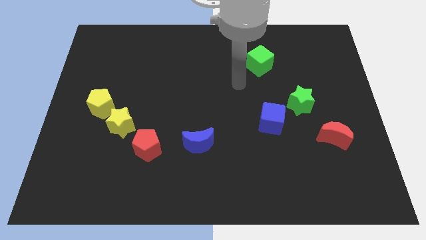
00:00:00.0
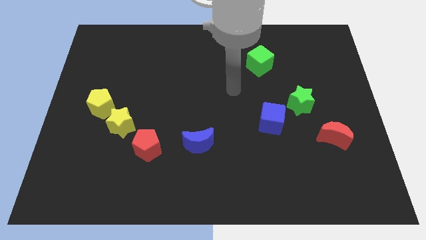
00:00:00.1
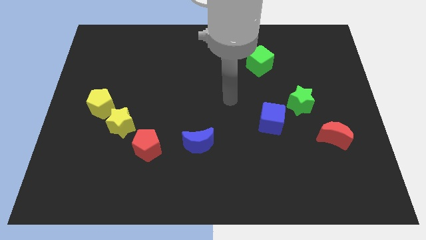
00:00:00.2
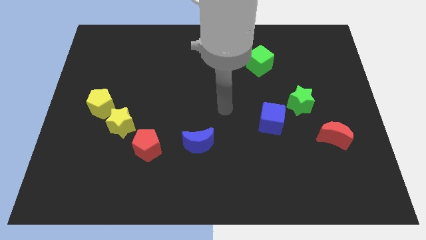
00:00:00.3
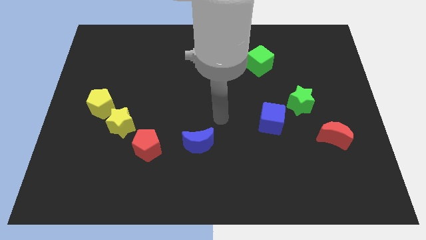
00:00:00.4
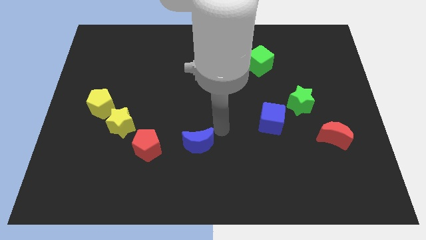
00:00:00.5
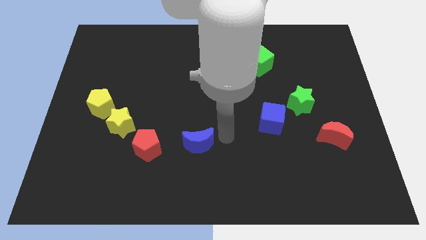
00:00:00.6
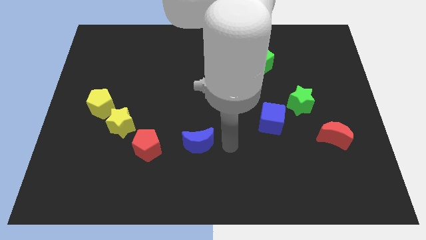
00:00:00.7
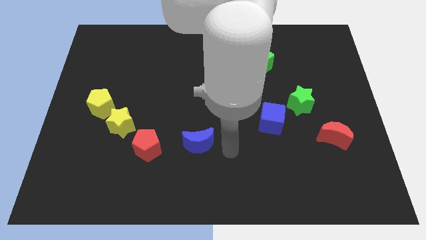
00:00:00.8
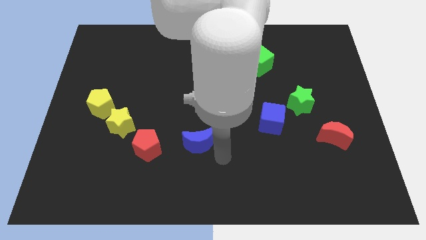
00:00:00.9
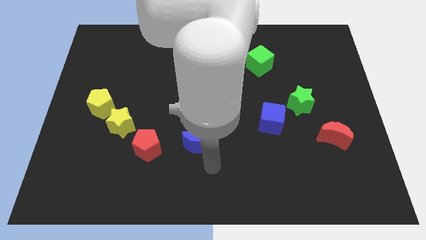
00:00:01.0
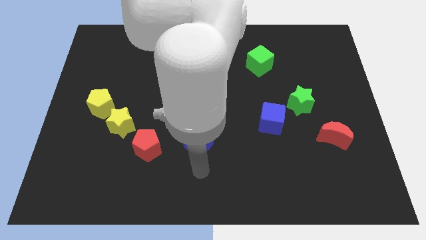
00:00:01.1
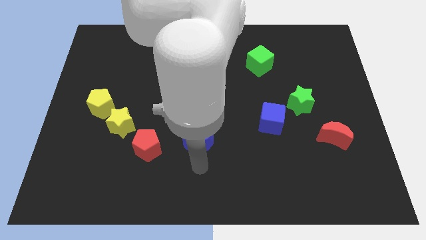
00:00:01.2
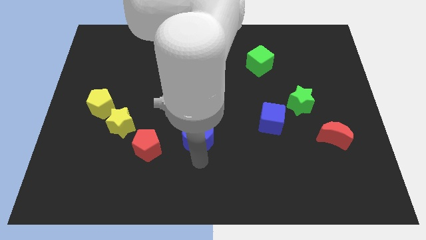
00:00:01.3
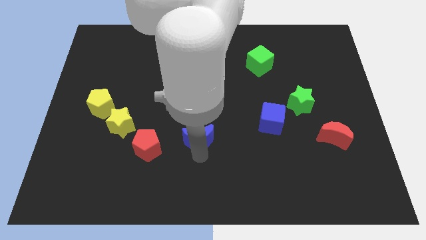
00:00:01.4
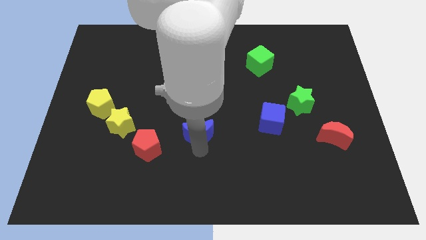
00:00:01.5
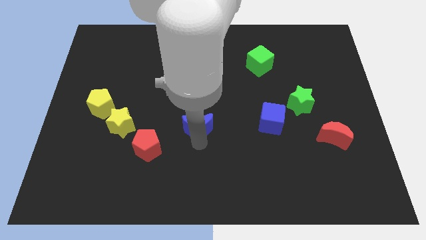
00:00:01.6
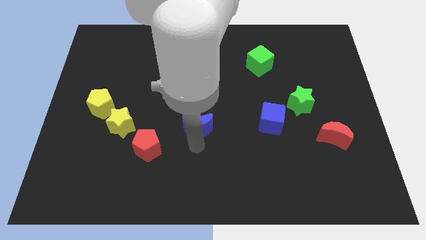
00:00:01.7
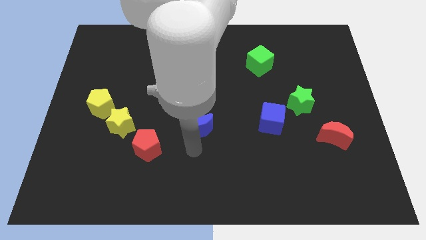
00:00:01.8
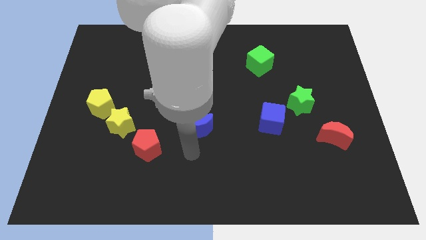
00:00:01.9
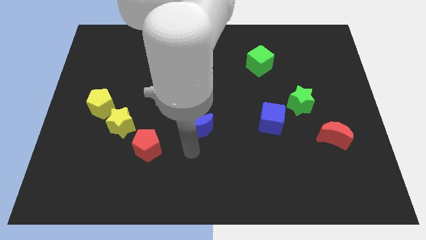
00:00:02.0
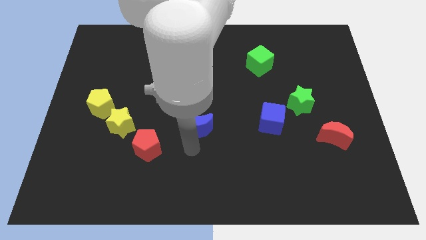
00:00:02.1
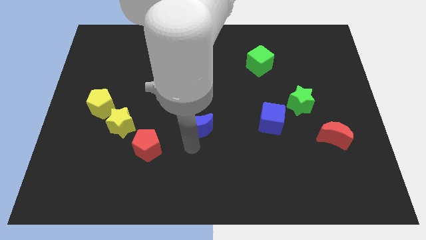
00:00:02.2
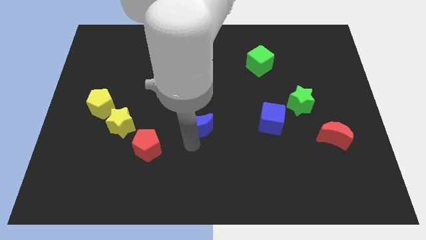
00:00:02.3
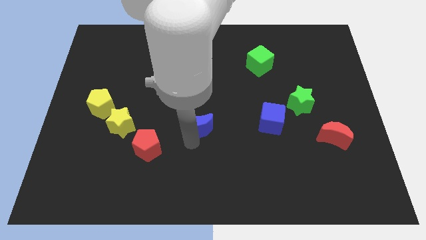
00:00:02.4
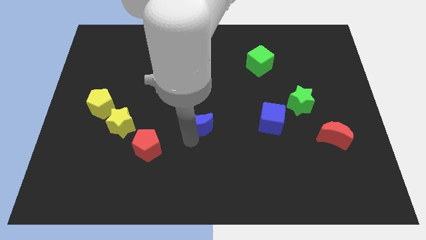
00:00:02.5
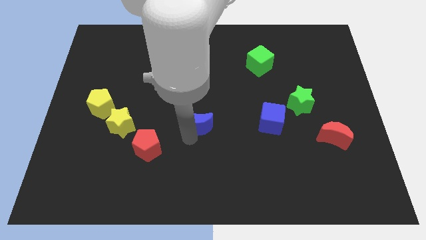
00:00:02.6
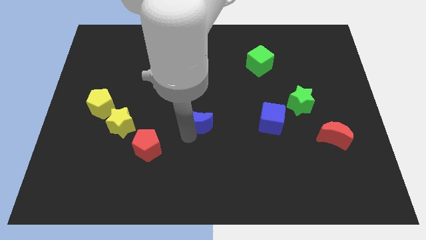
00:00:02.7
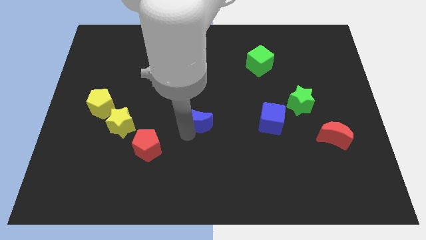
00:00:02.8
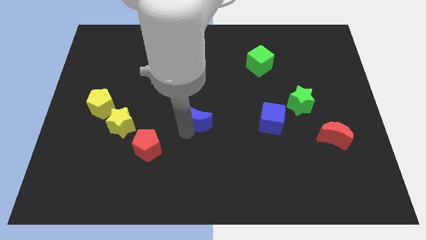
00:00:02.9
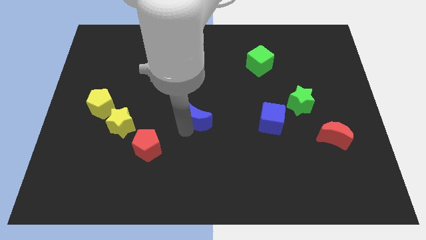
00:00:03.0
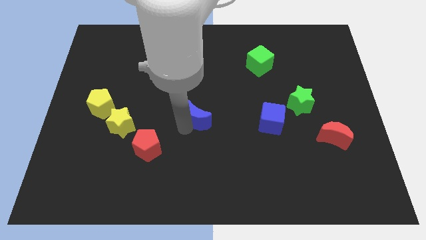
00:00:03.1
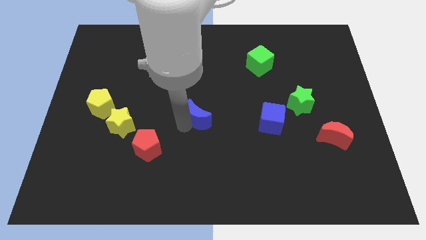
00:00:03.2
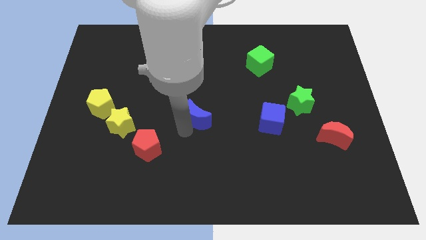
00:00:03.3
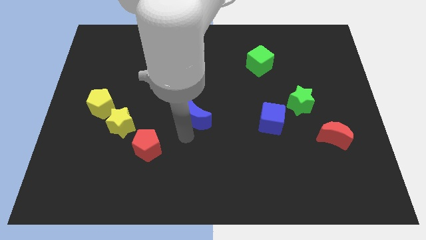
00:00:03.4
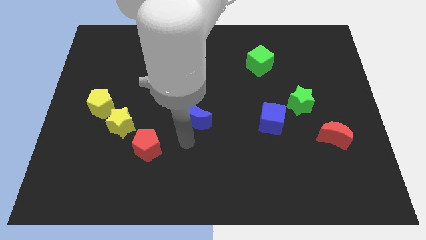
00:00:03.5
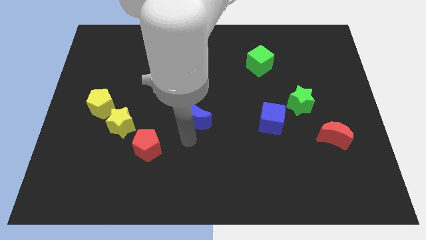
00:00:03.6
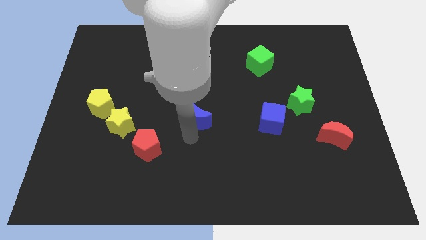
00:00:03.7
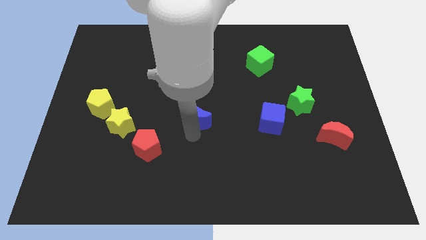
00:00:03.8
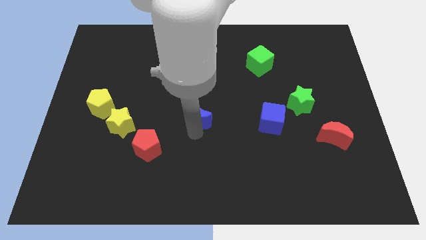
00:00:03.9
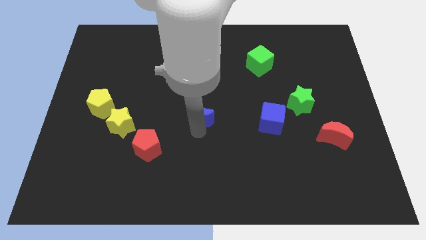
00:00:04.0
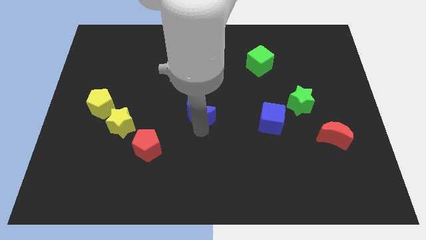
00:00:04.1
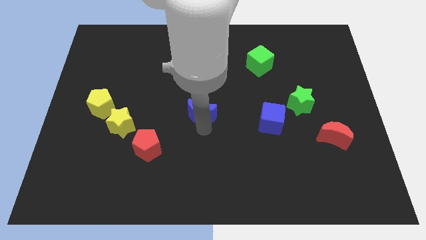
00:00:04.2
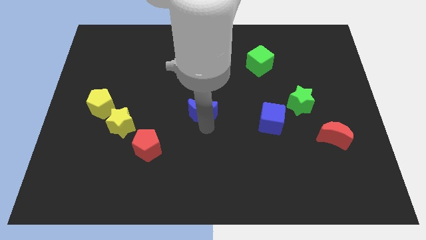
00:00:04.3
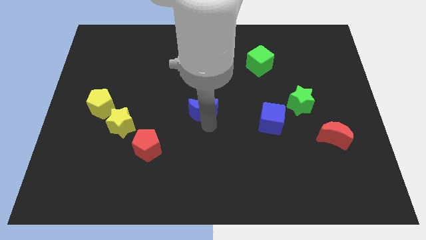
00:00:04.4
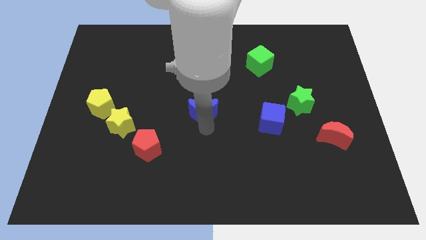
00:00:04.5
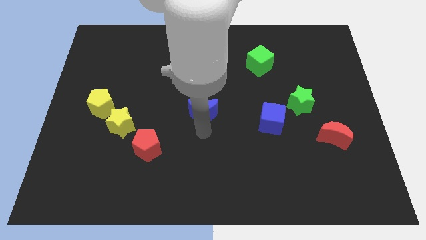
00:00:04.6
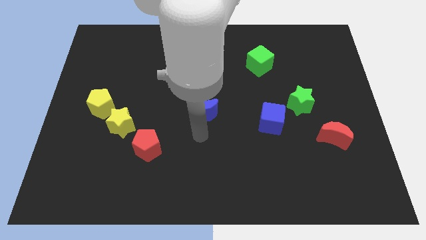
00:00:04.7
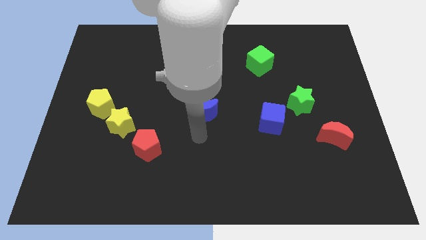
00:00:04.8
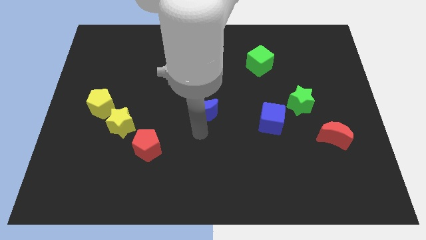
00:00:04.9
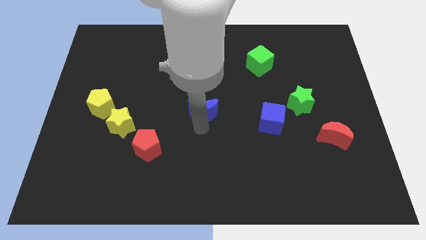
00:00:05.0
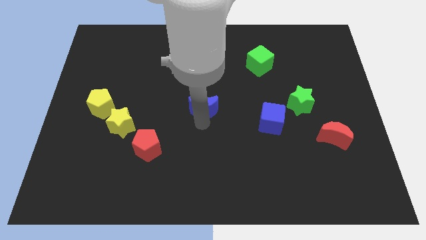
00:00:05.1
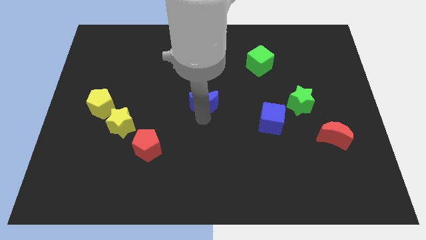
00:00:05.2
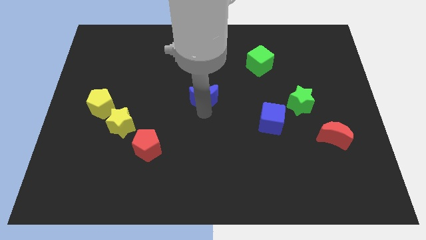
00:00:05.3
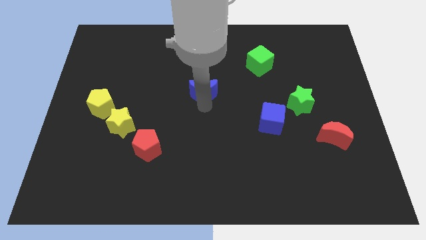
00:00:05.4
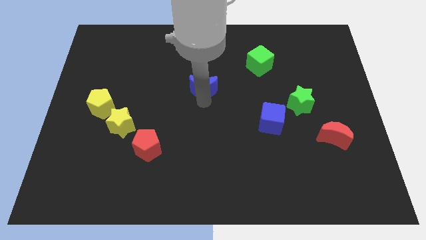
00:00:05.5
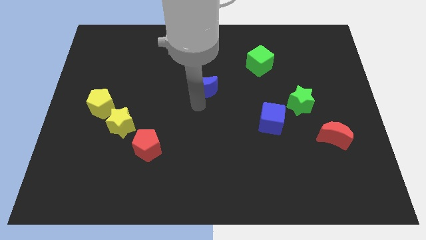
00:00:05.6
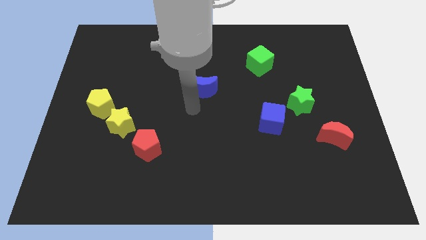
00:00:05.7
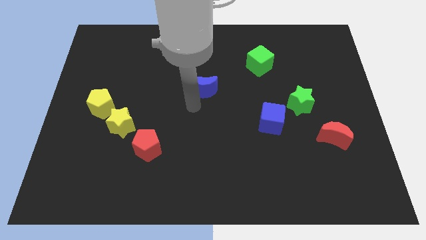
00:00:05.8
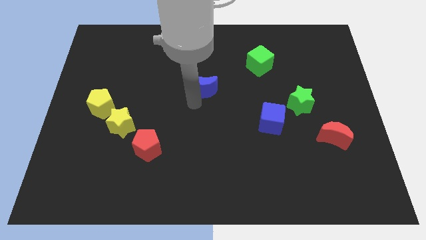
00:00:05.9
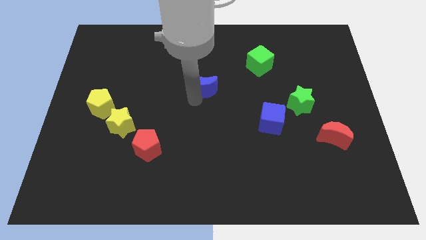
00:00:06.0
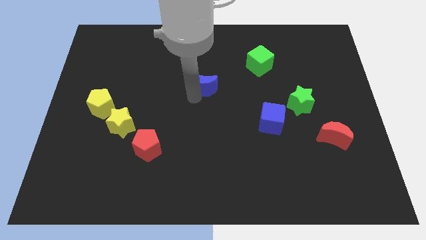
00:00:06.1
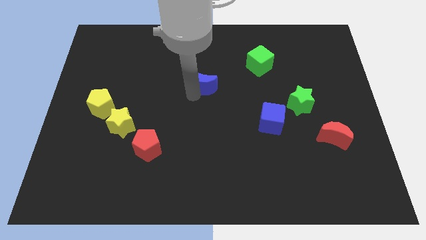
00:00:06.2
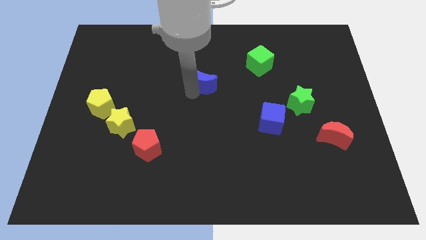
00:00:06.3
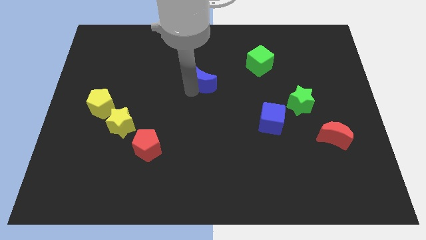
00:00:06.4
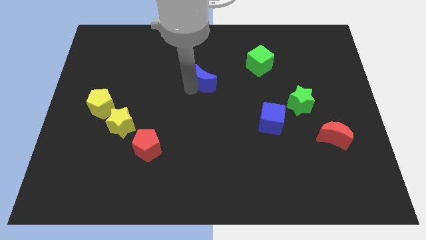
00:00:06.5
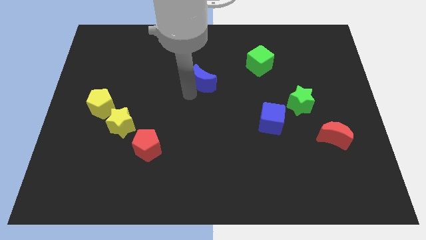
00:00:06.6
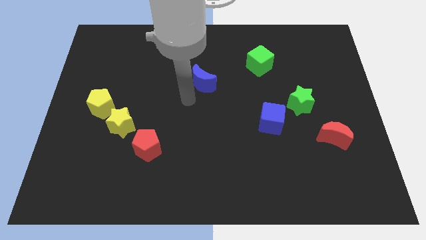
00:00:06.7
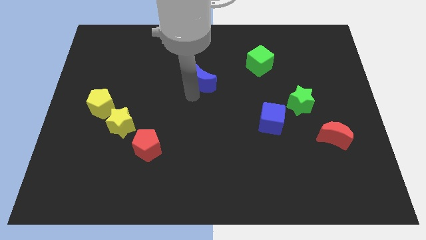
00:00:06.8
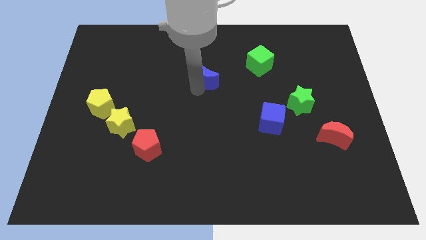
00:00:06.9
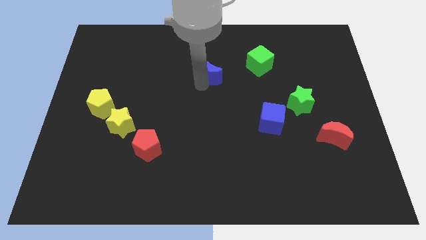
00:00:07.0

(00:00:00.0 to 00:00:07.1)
move the blue moon to the left side of the green cube
